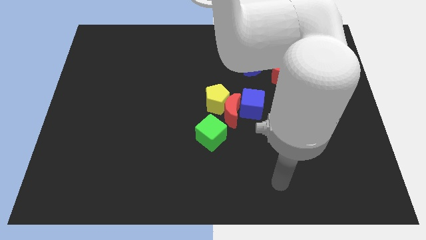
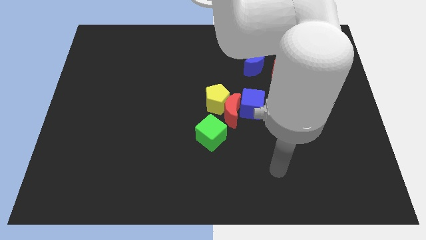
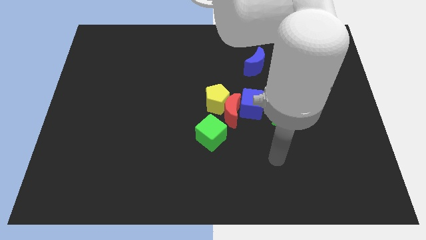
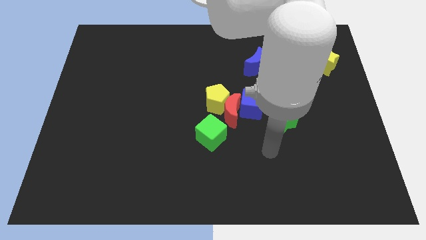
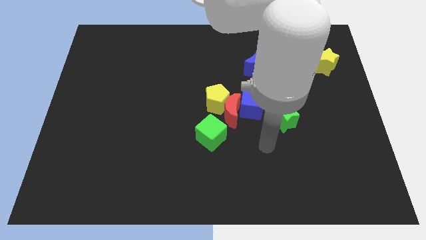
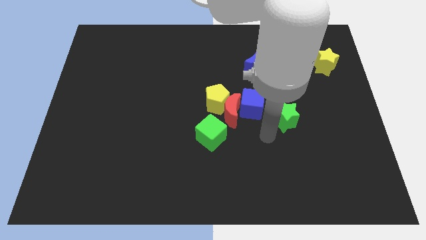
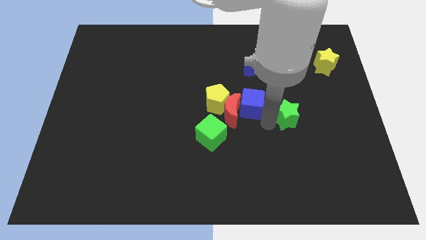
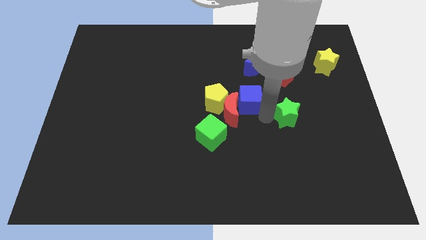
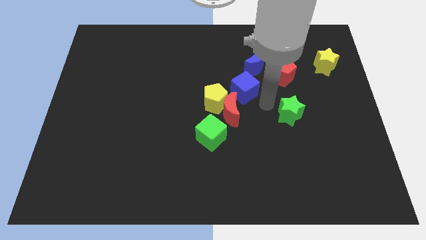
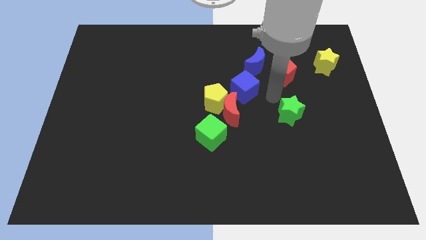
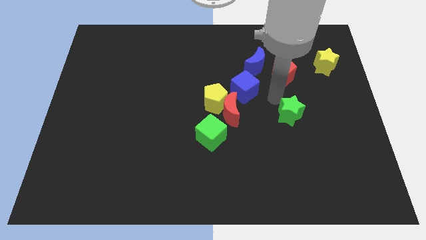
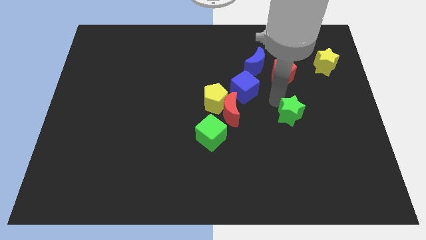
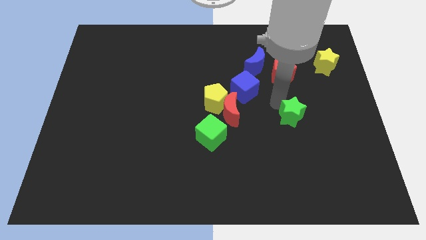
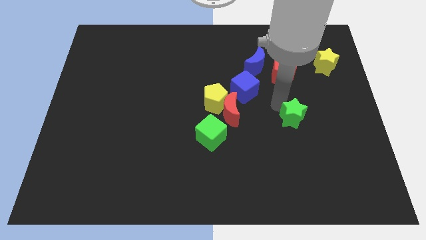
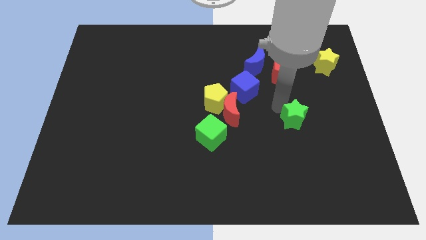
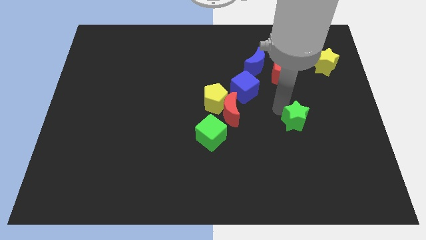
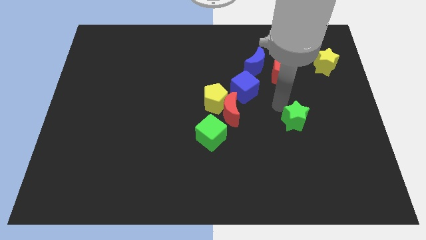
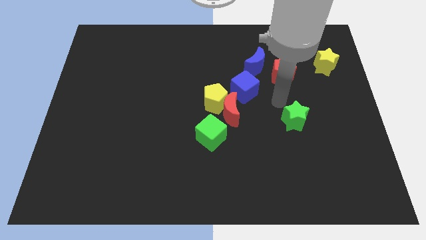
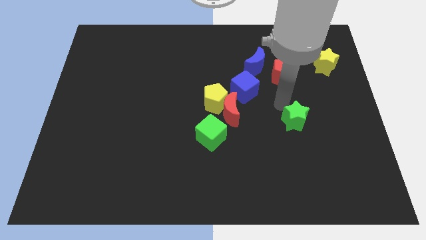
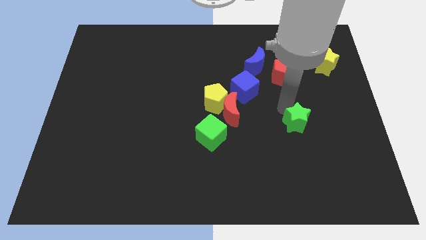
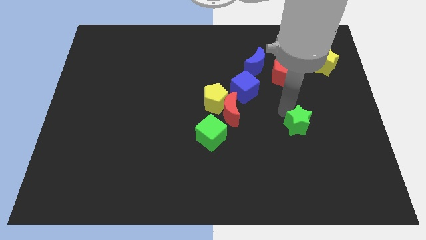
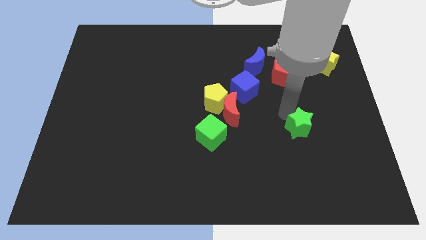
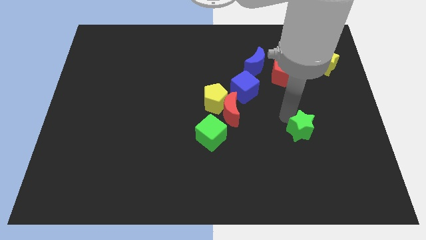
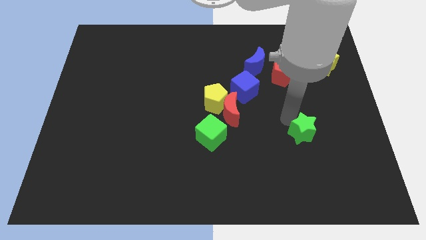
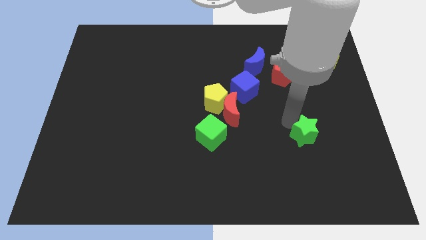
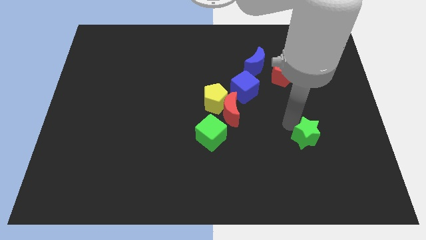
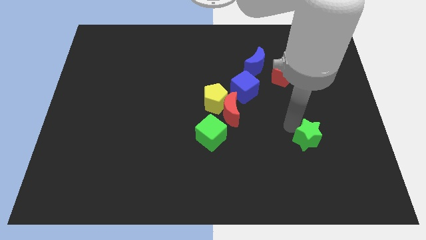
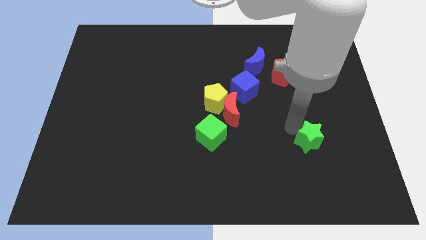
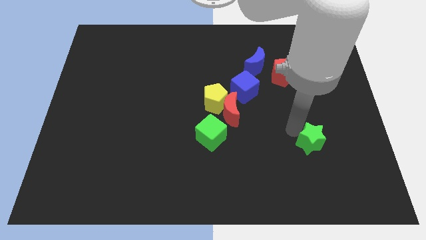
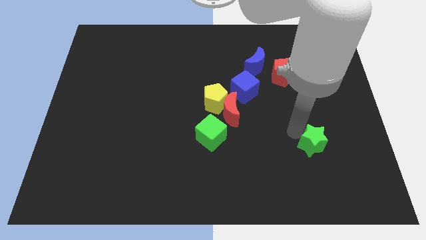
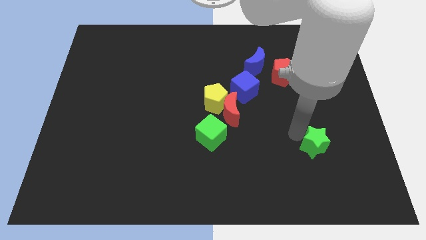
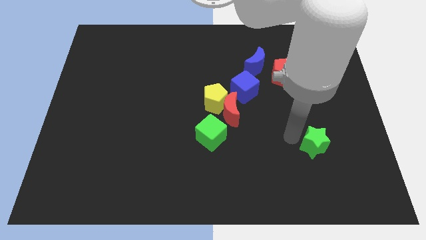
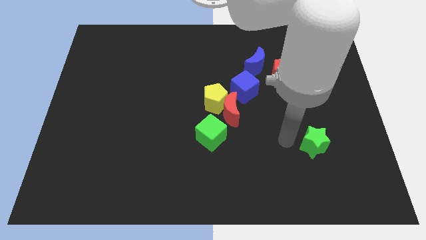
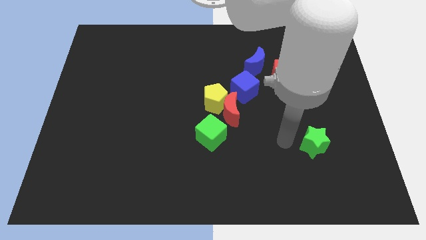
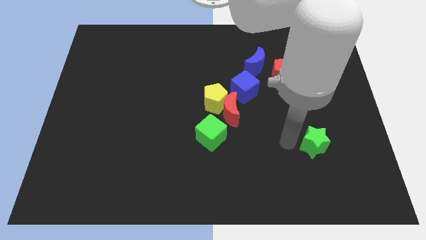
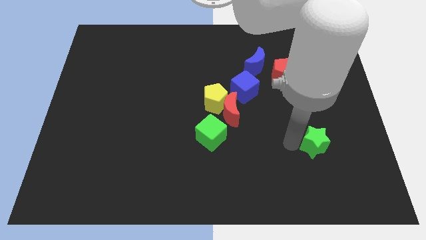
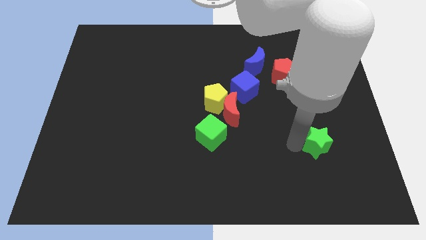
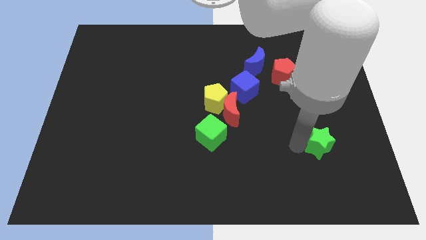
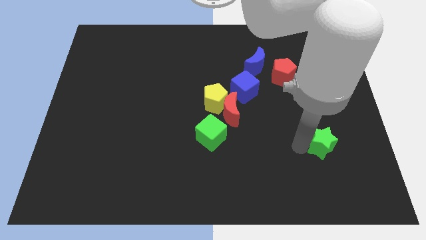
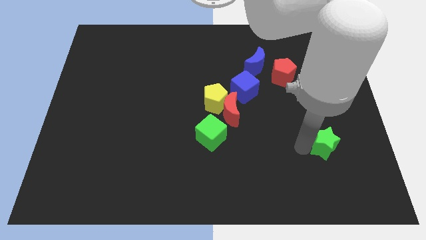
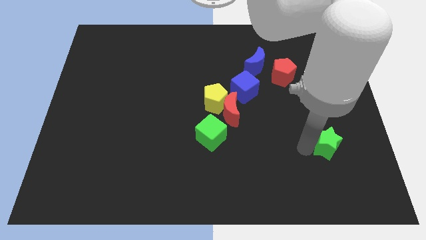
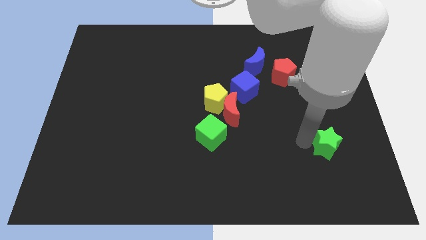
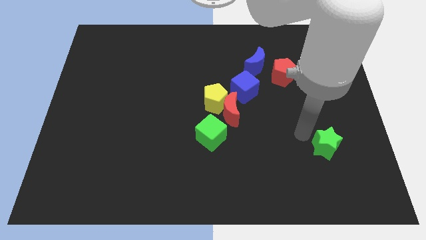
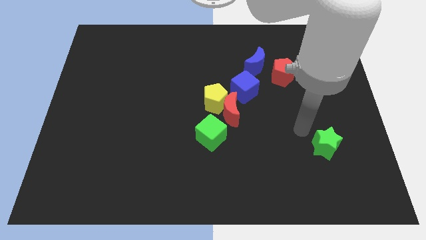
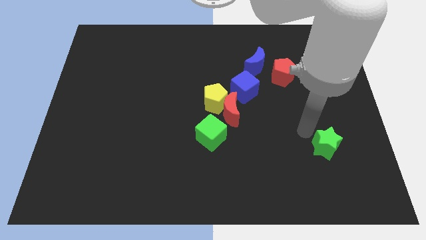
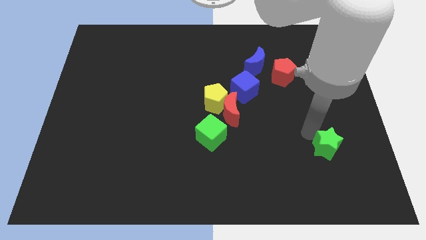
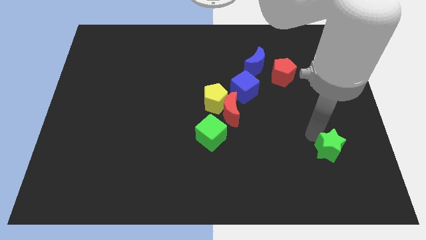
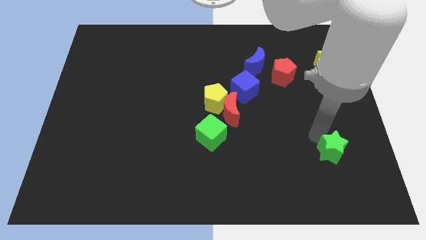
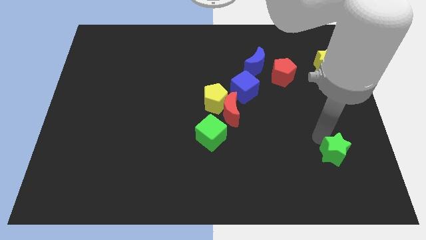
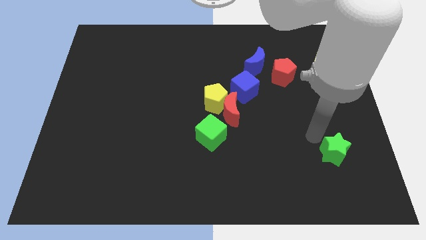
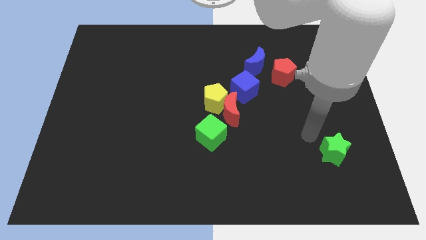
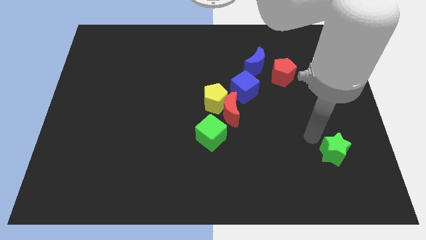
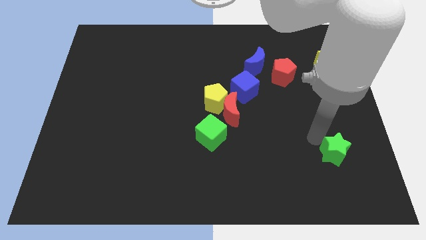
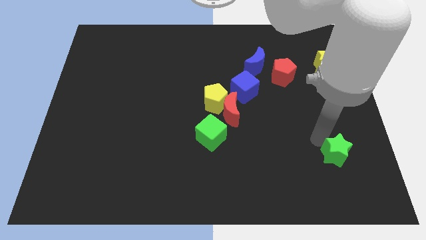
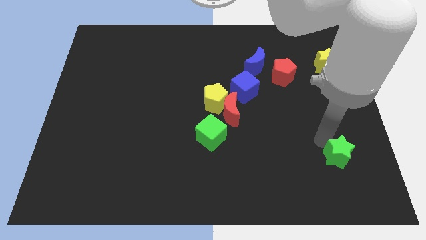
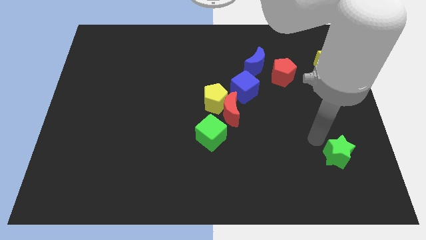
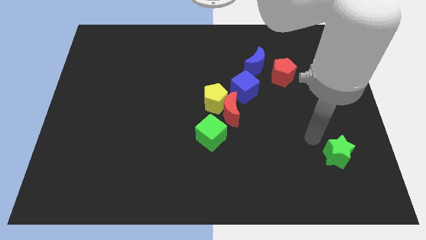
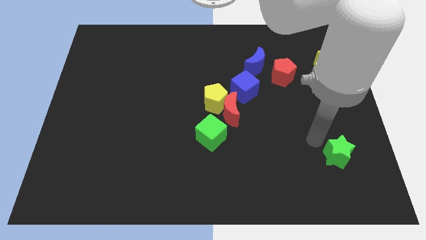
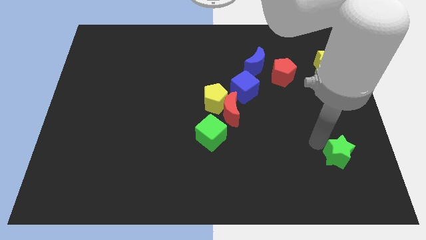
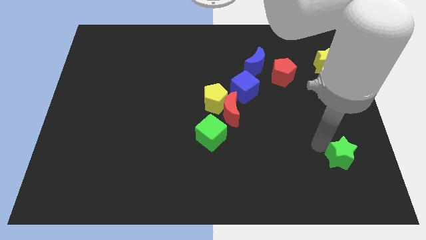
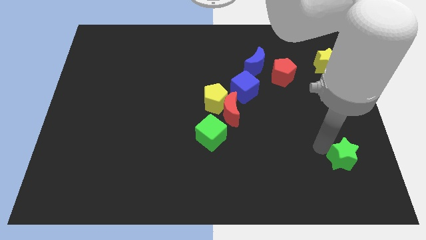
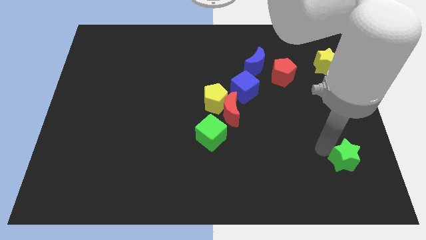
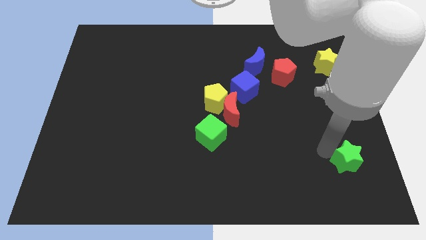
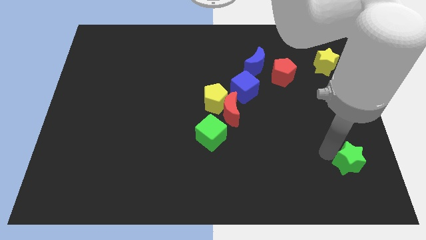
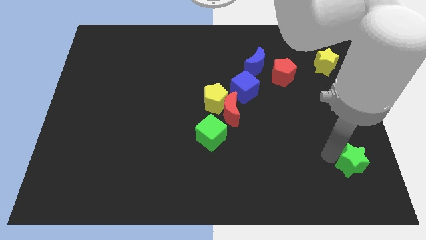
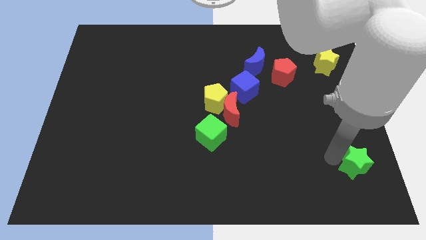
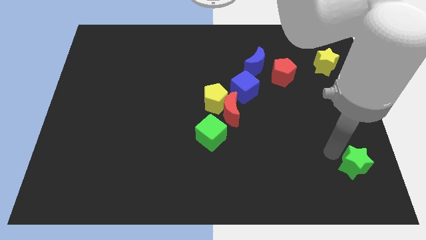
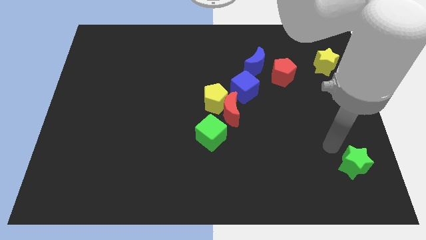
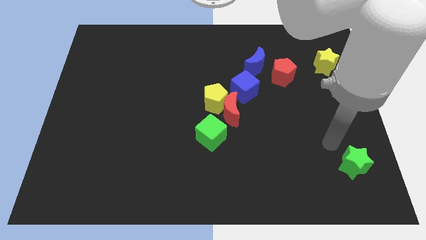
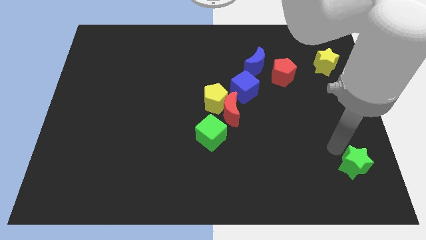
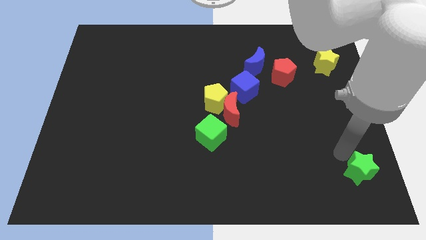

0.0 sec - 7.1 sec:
push the green star to the lower right corner
